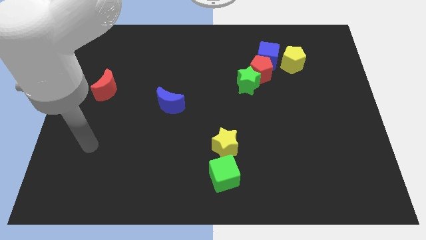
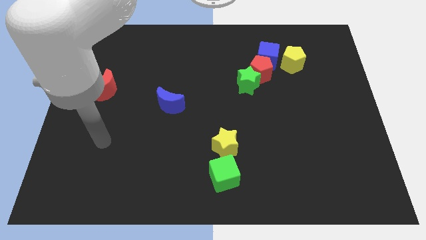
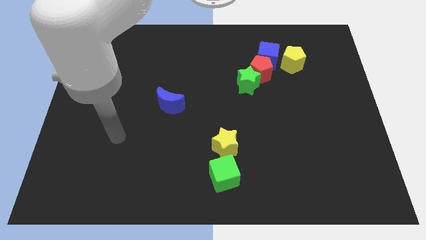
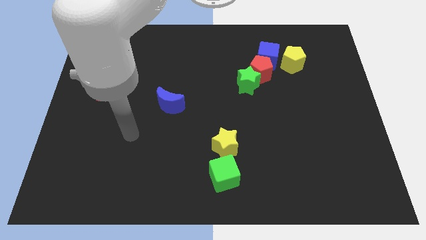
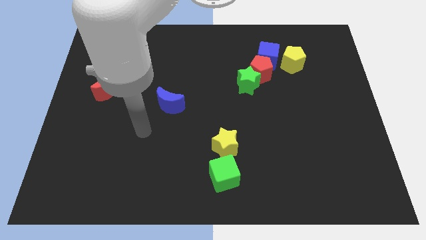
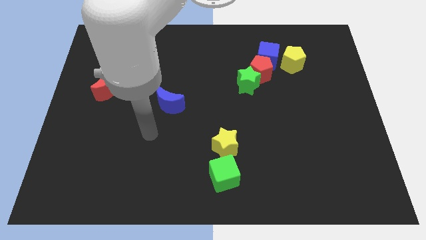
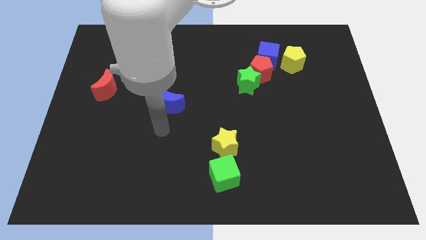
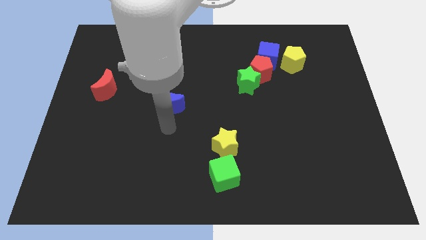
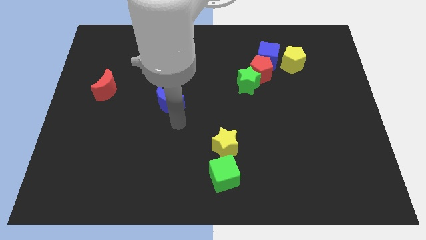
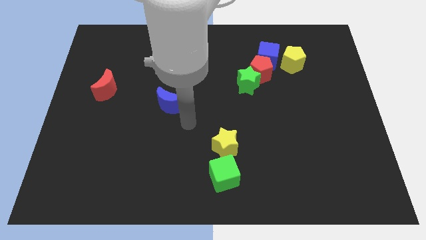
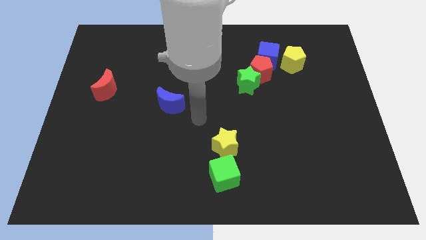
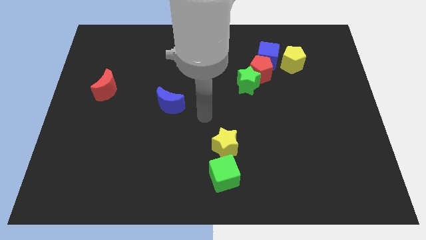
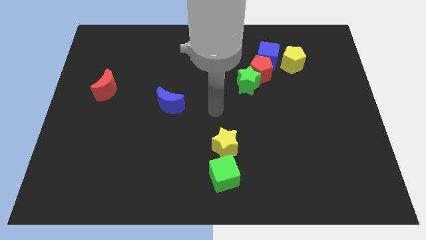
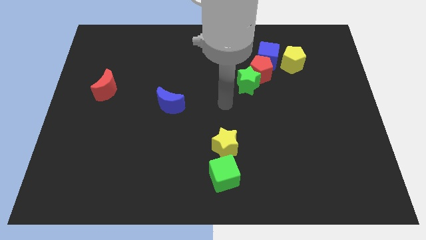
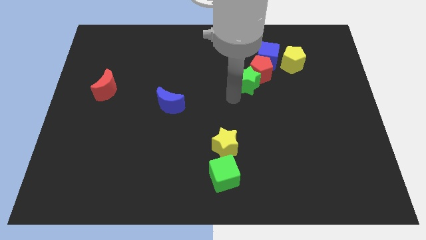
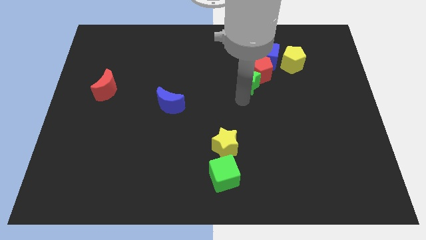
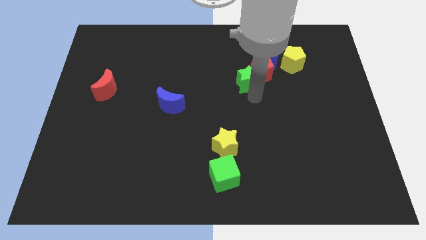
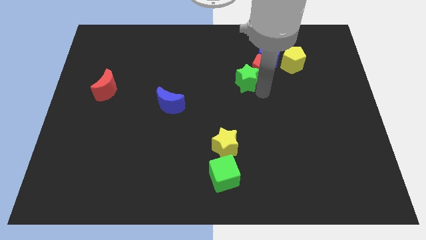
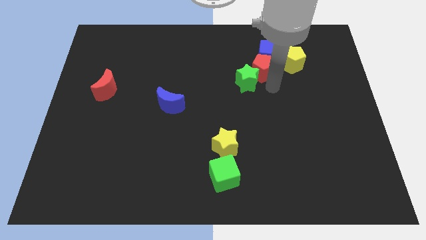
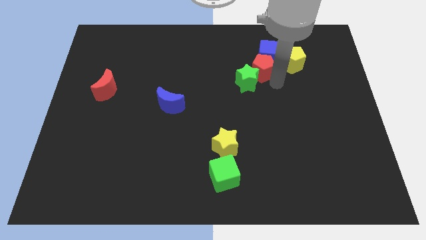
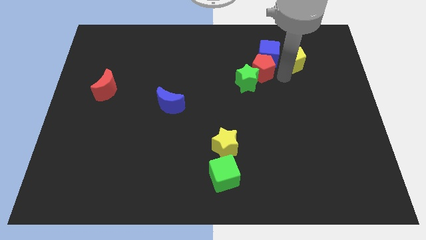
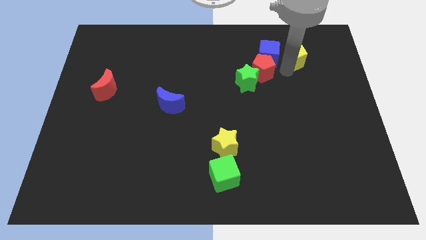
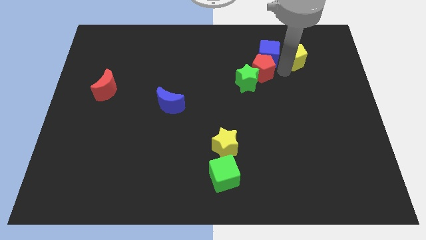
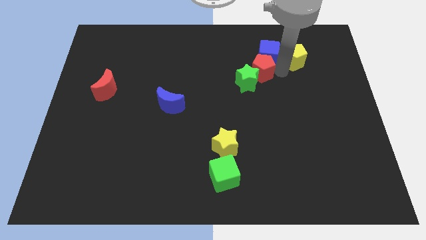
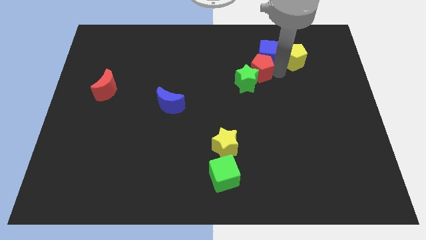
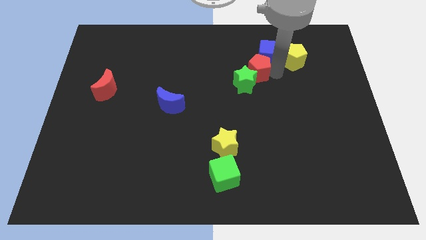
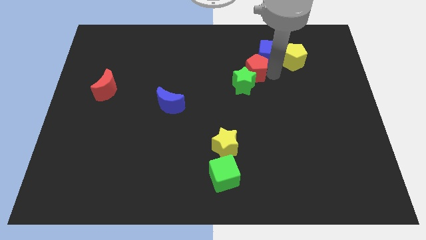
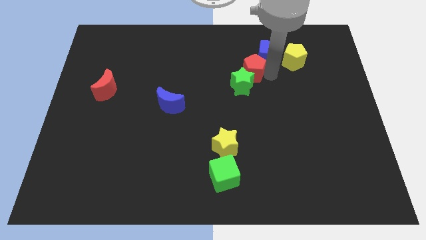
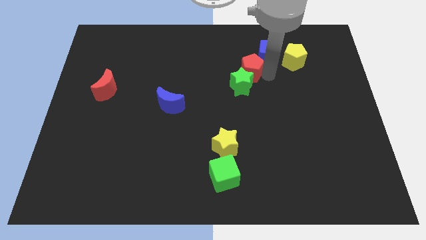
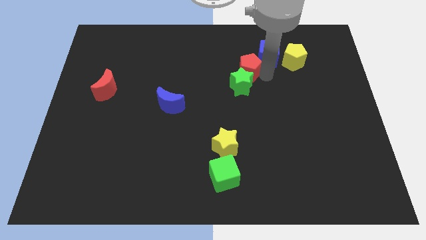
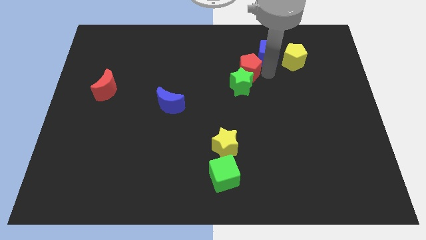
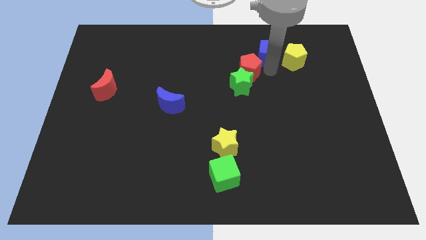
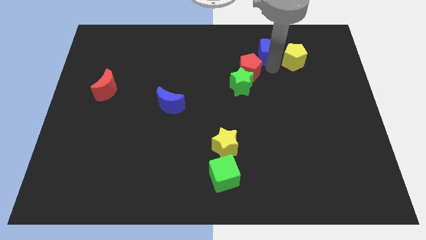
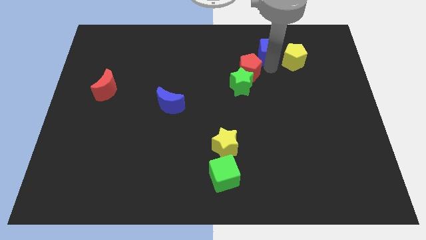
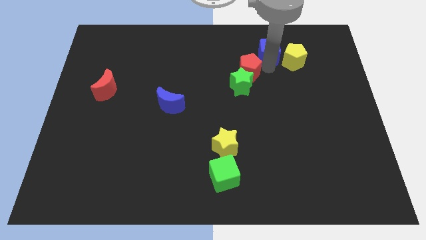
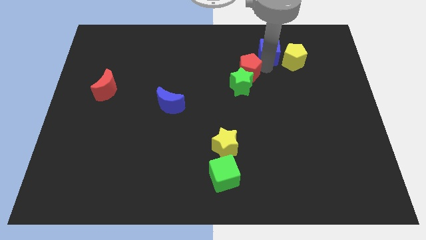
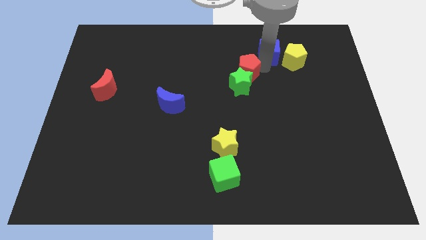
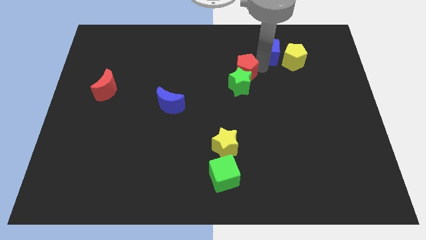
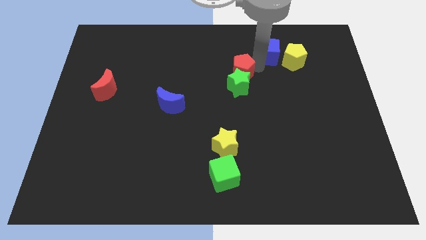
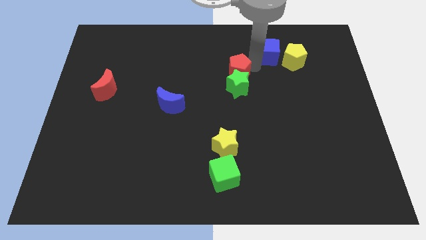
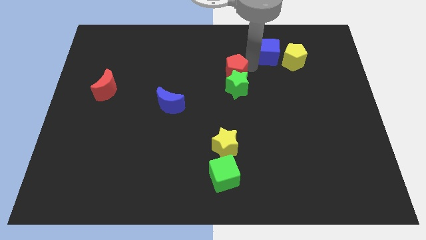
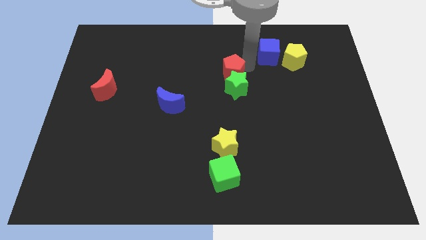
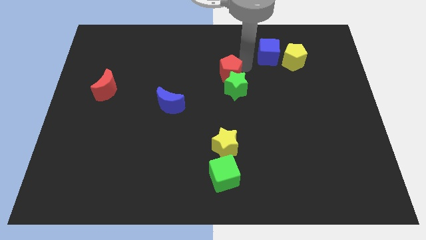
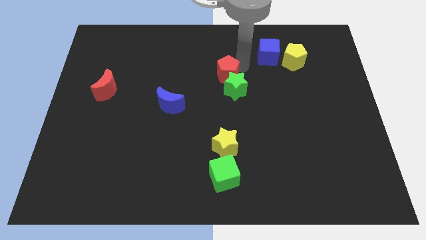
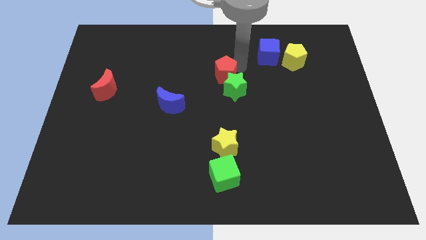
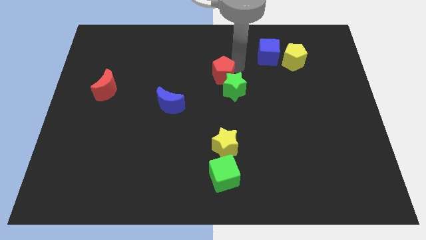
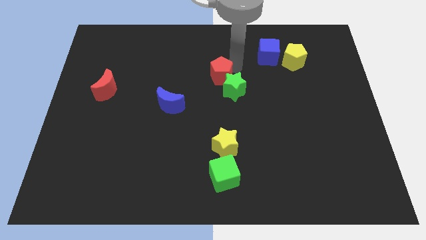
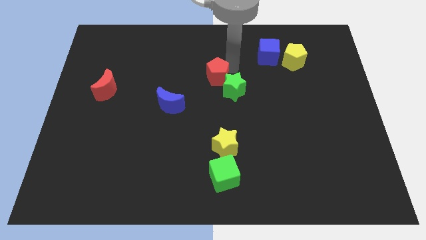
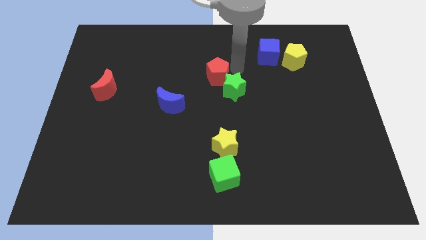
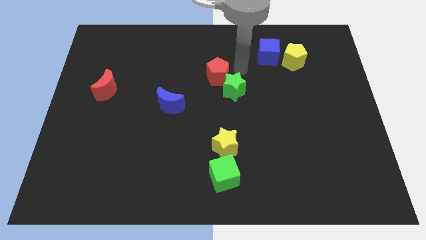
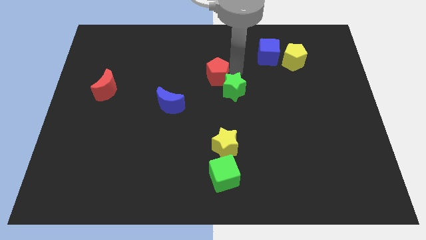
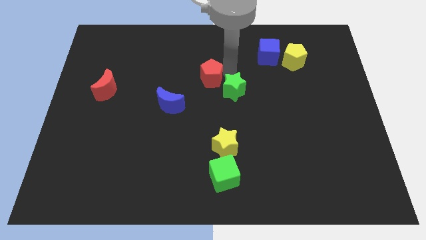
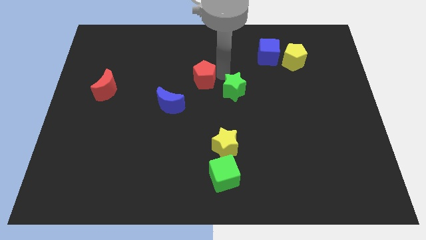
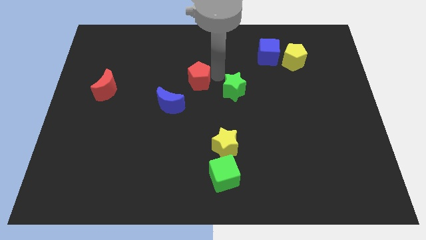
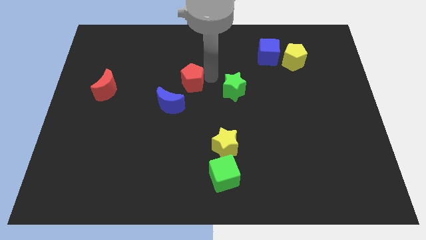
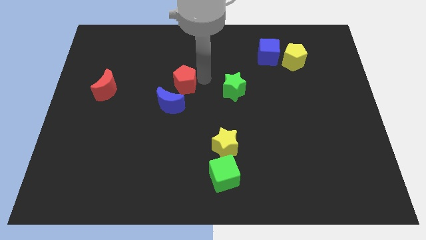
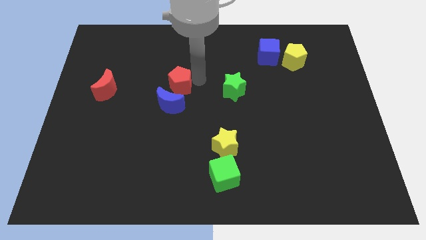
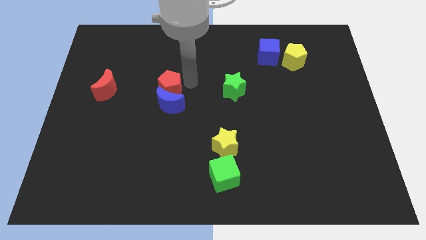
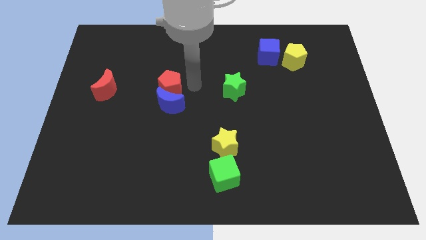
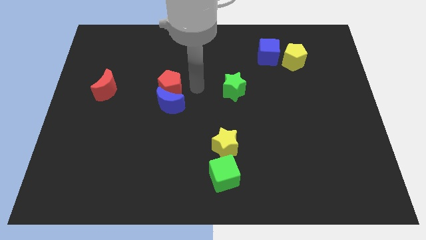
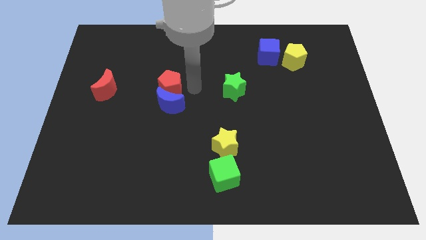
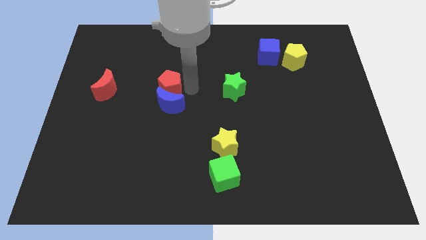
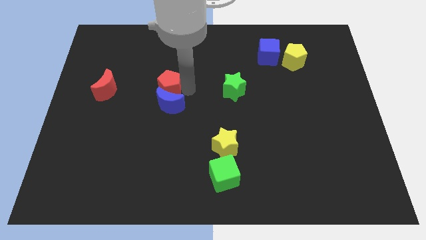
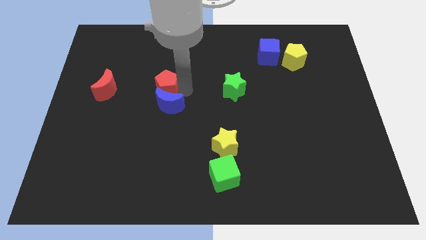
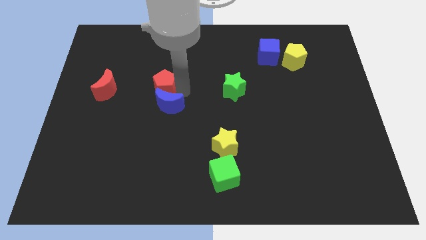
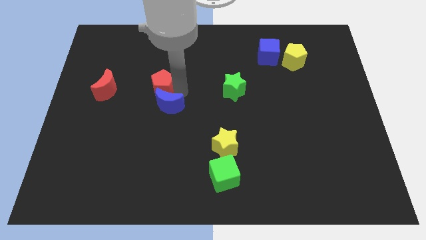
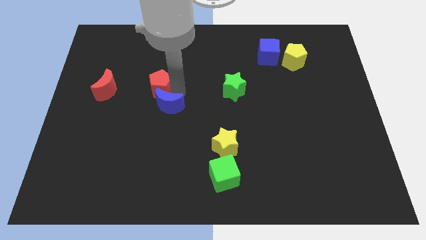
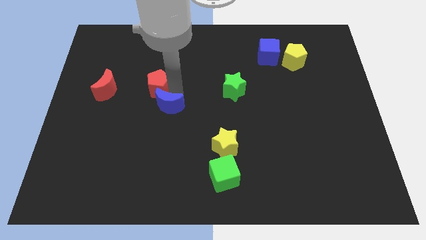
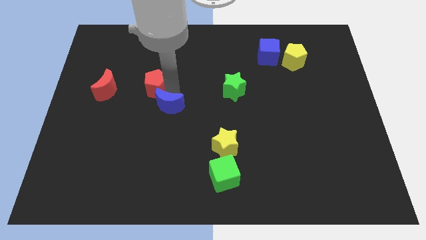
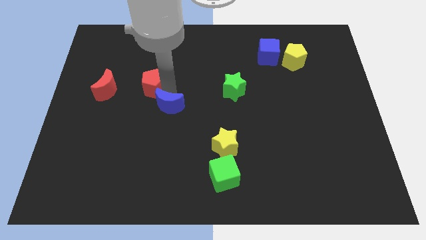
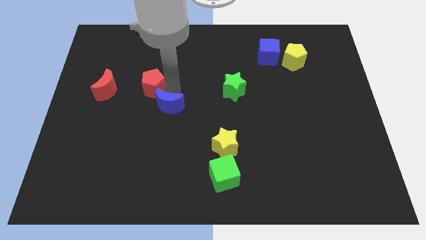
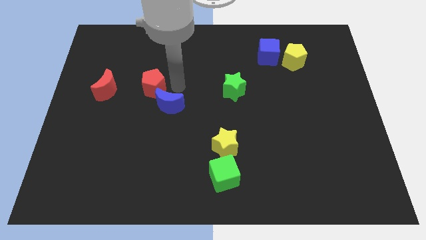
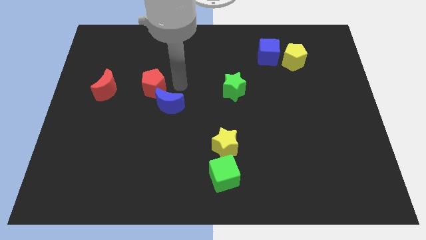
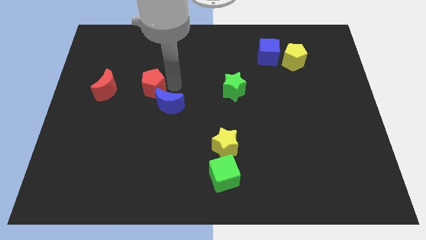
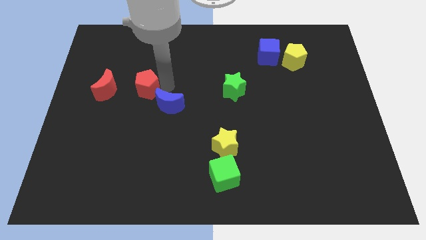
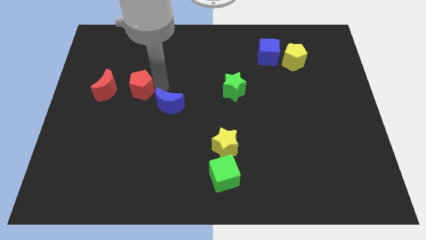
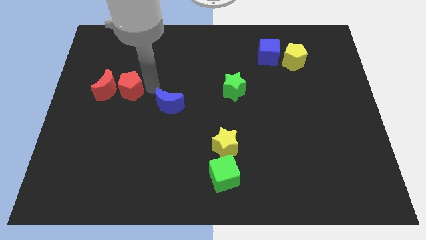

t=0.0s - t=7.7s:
push the red pentagon to the red moon

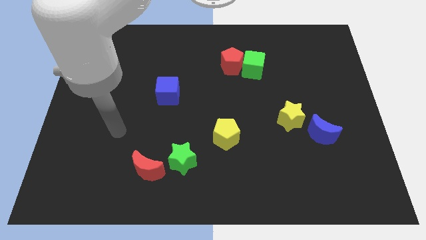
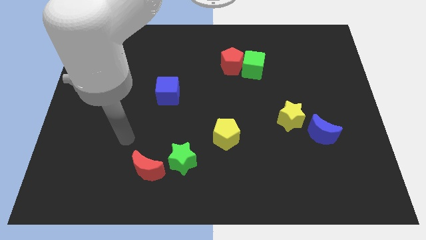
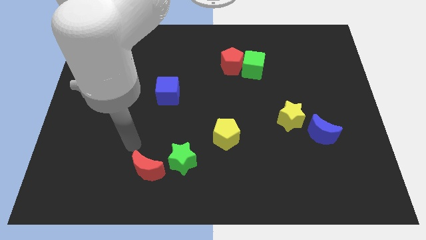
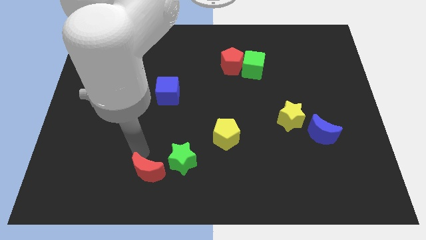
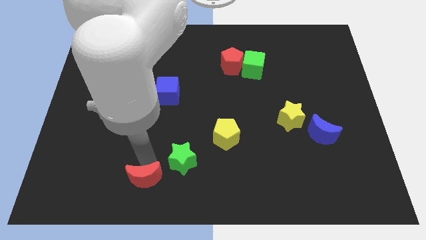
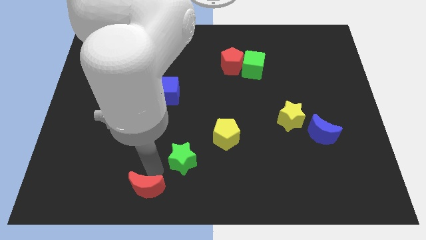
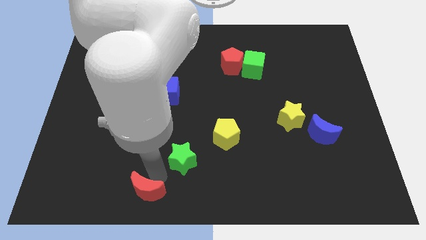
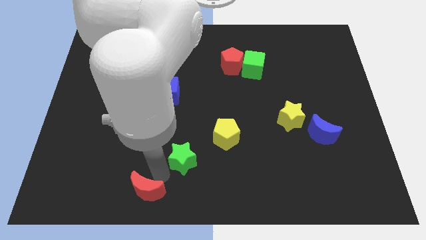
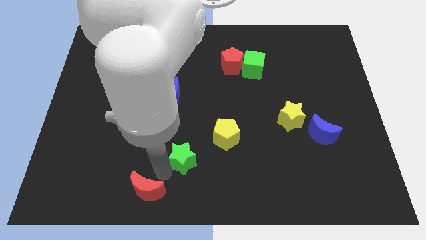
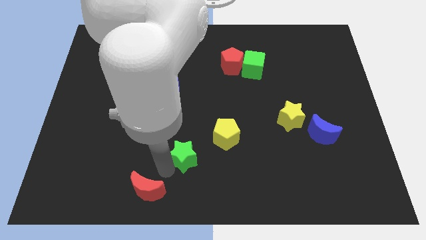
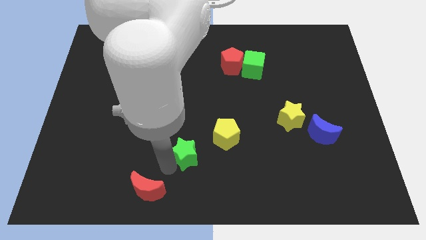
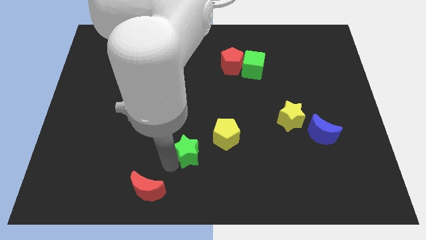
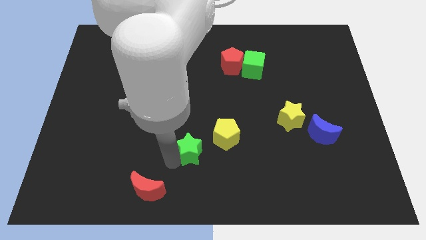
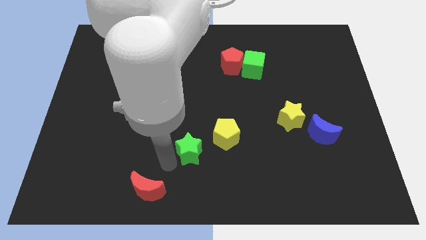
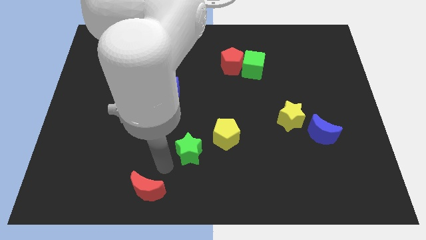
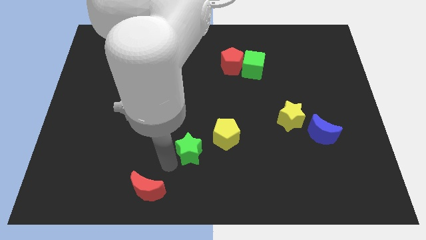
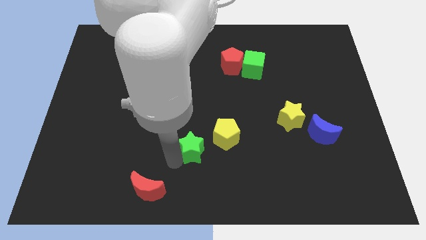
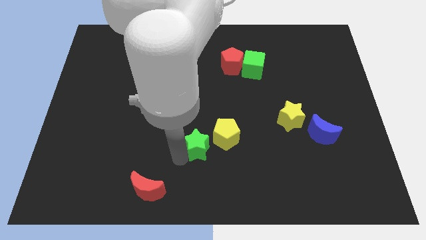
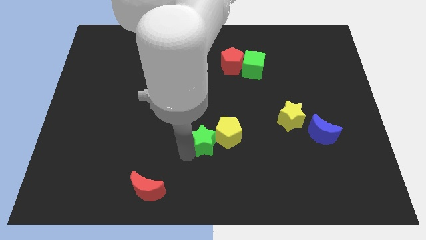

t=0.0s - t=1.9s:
slide the green star close to the yellow pentagon
